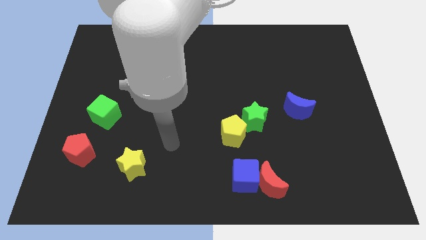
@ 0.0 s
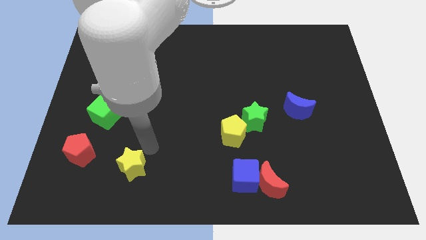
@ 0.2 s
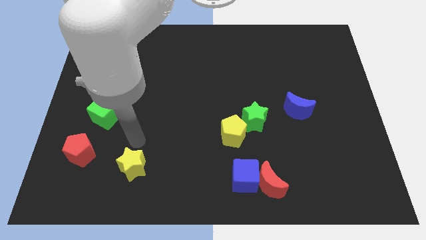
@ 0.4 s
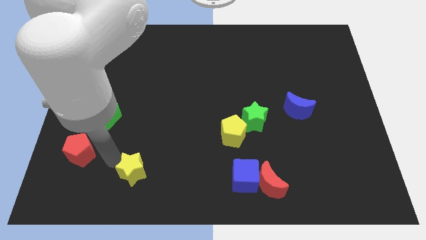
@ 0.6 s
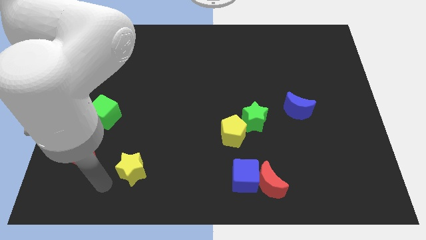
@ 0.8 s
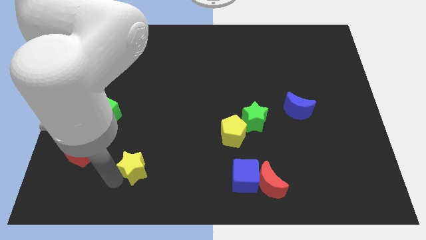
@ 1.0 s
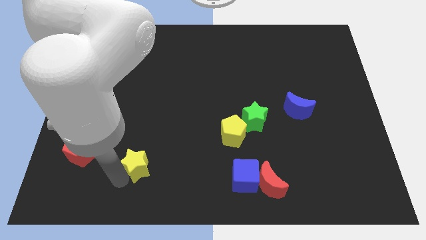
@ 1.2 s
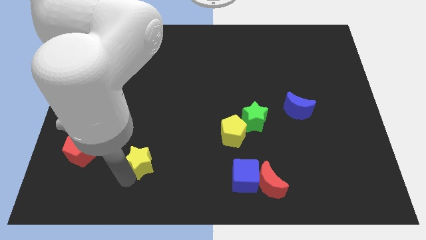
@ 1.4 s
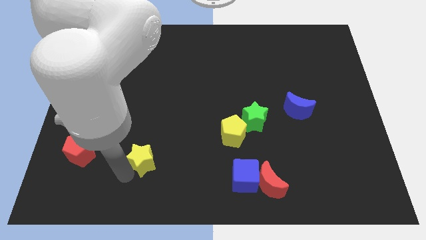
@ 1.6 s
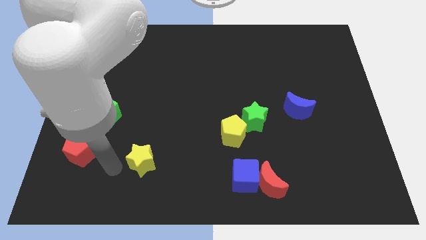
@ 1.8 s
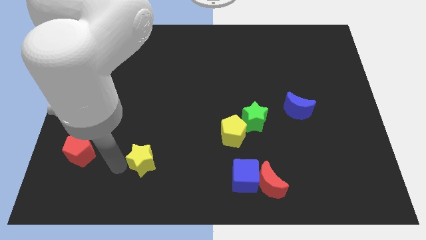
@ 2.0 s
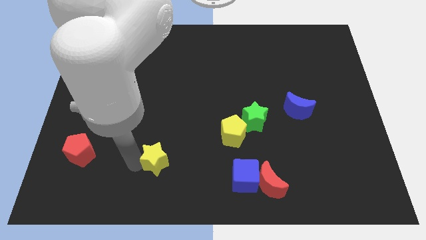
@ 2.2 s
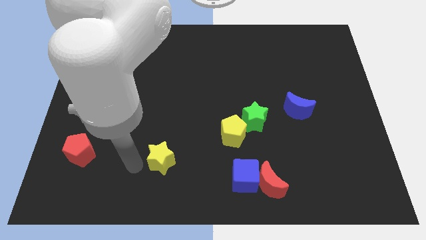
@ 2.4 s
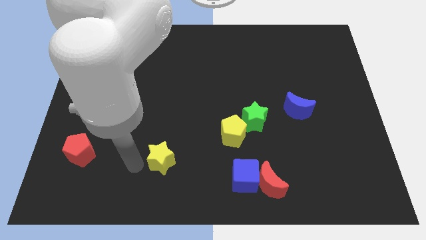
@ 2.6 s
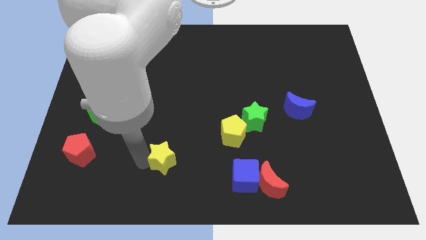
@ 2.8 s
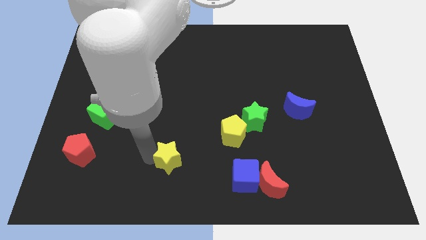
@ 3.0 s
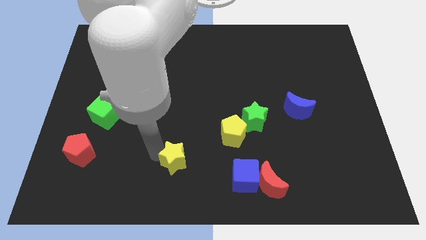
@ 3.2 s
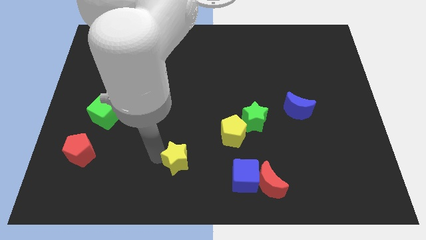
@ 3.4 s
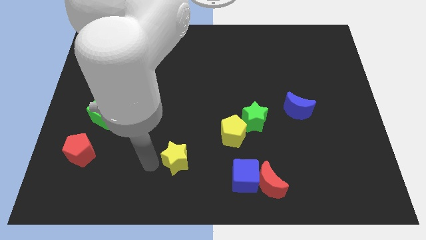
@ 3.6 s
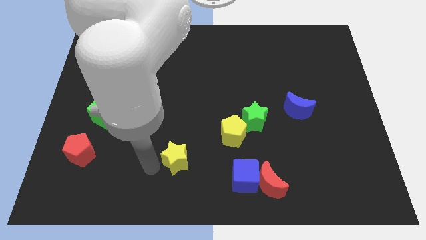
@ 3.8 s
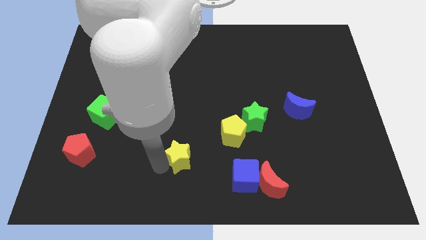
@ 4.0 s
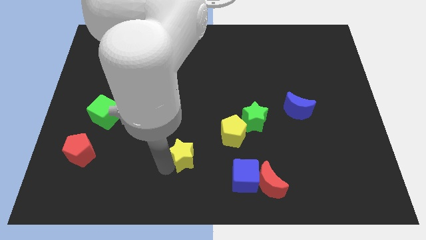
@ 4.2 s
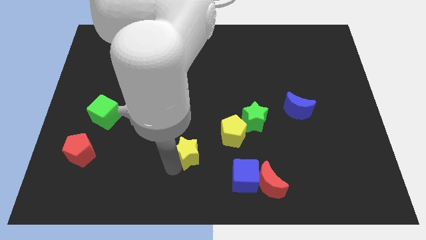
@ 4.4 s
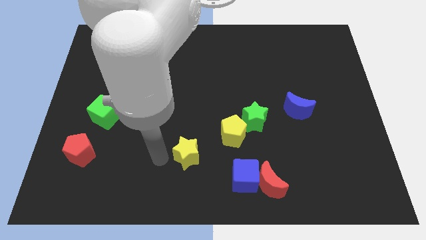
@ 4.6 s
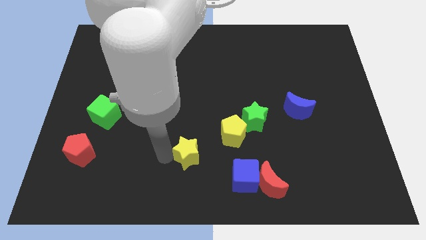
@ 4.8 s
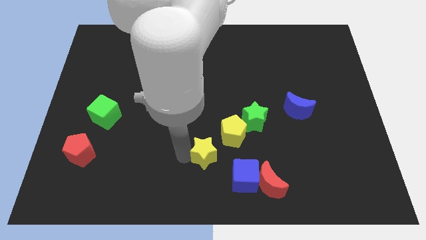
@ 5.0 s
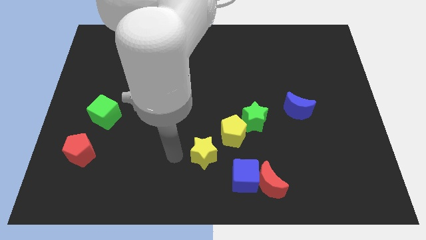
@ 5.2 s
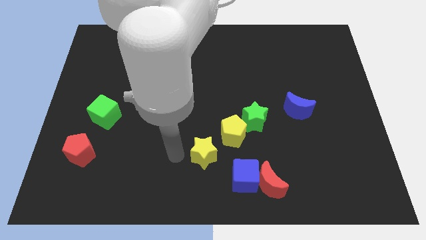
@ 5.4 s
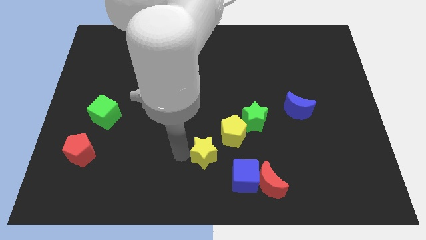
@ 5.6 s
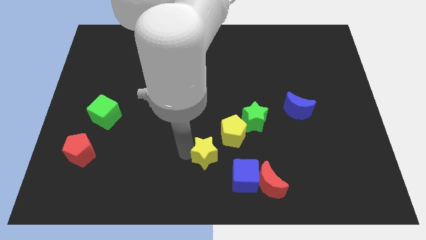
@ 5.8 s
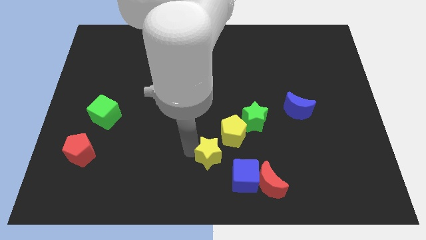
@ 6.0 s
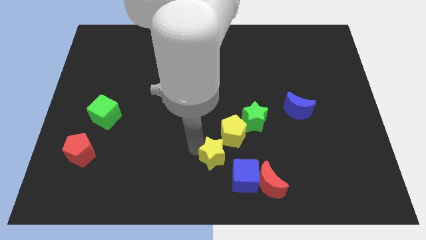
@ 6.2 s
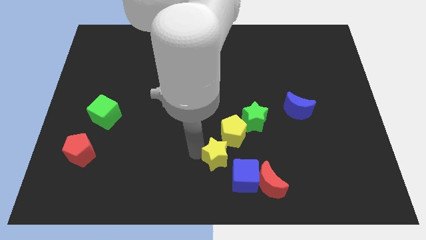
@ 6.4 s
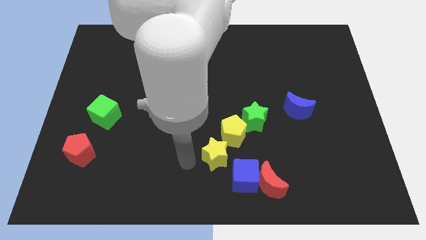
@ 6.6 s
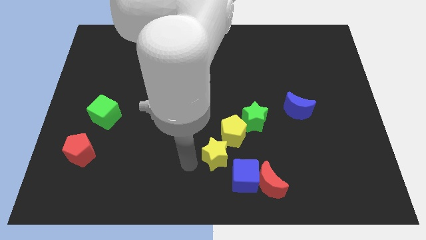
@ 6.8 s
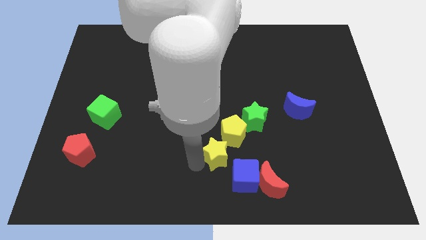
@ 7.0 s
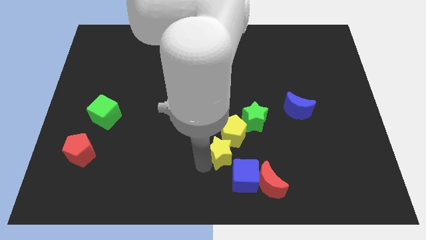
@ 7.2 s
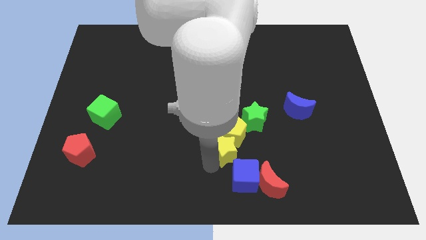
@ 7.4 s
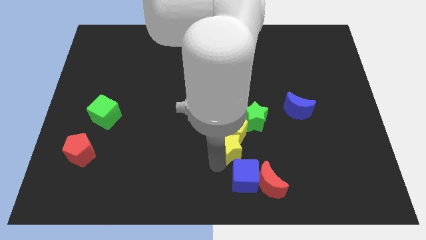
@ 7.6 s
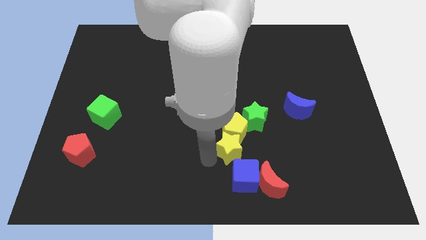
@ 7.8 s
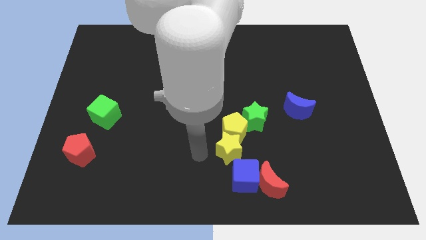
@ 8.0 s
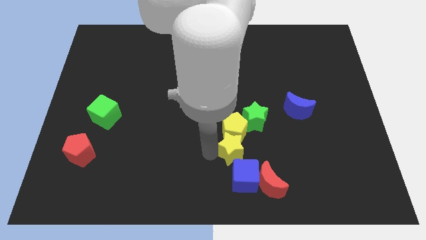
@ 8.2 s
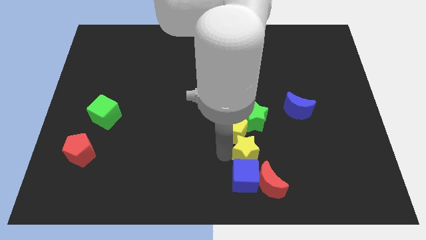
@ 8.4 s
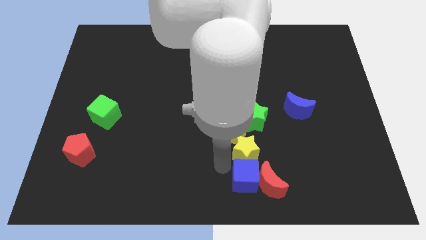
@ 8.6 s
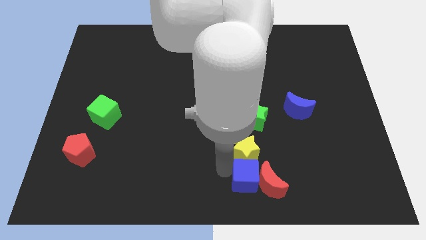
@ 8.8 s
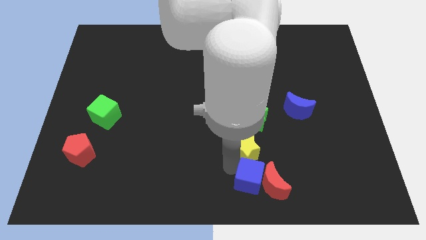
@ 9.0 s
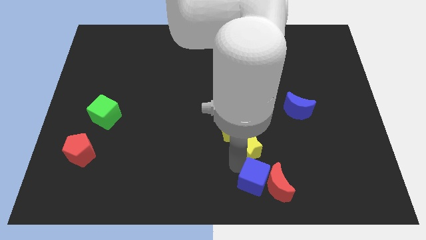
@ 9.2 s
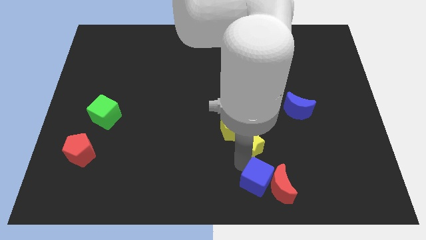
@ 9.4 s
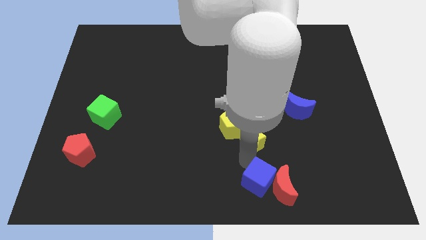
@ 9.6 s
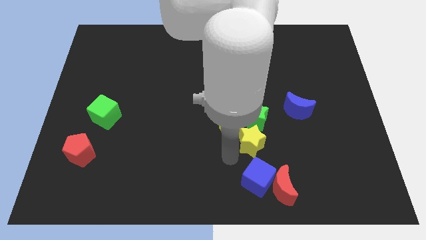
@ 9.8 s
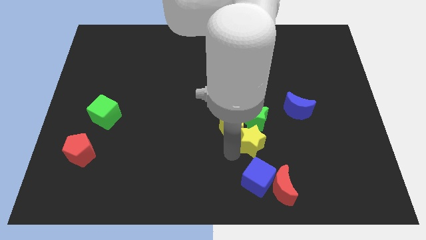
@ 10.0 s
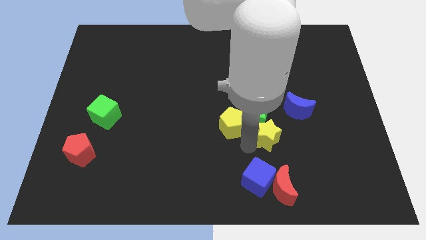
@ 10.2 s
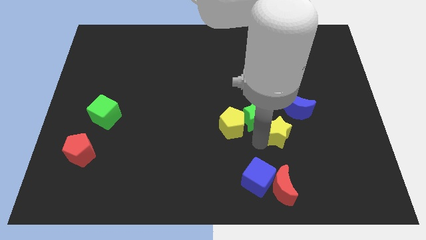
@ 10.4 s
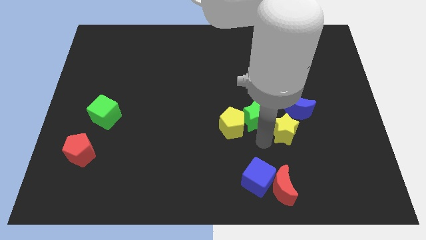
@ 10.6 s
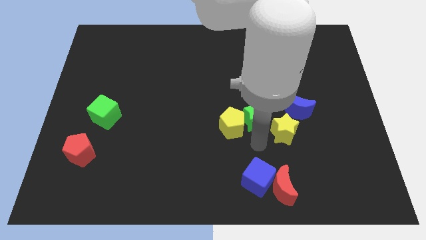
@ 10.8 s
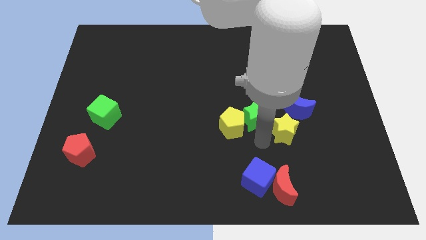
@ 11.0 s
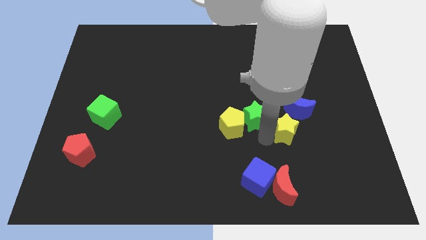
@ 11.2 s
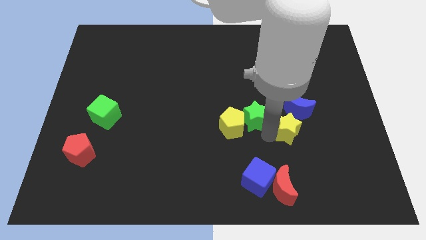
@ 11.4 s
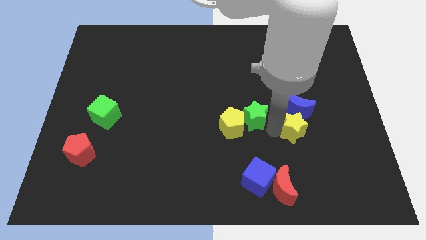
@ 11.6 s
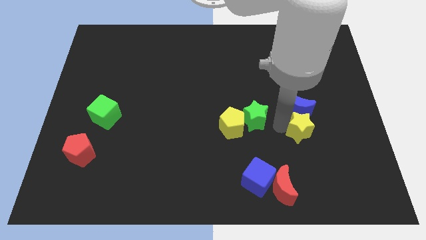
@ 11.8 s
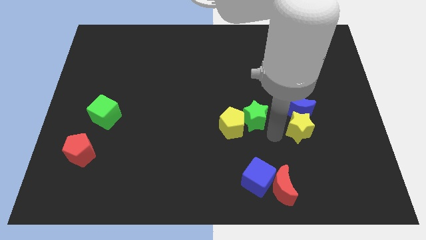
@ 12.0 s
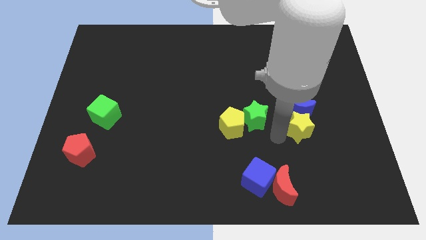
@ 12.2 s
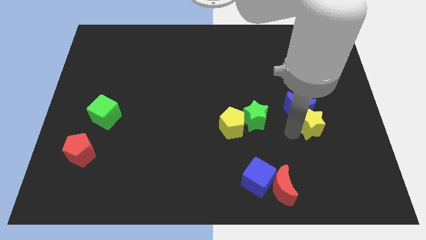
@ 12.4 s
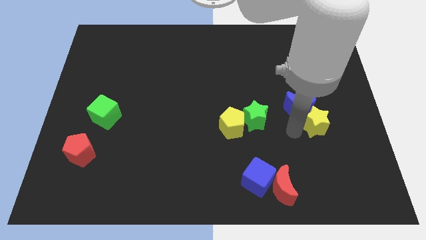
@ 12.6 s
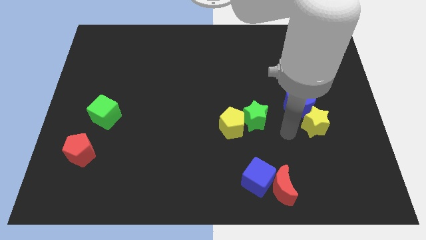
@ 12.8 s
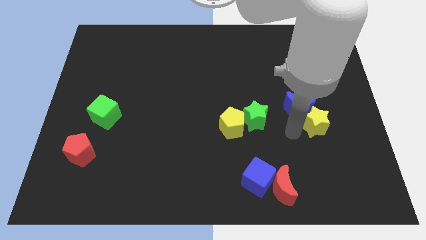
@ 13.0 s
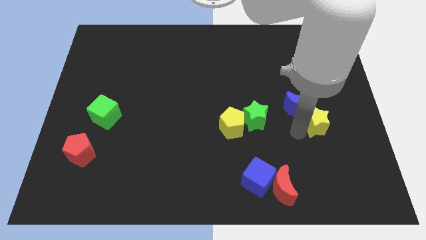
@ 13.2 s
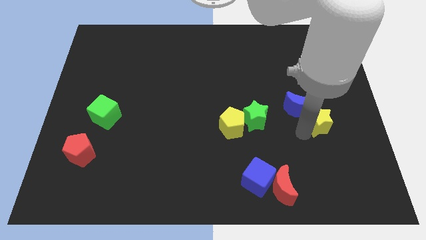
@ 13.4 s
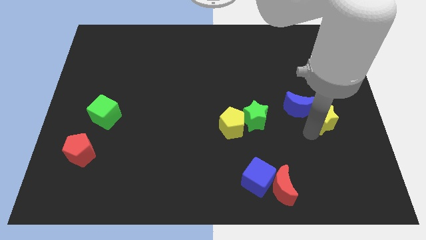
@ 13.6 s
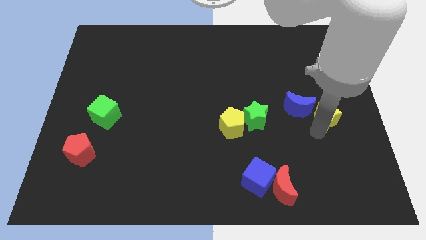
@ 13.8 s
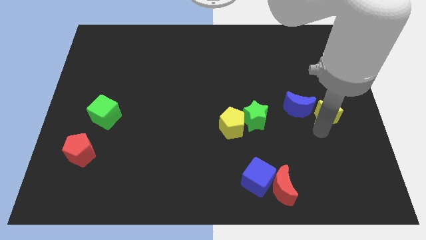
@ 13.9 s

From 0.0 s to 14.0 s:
put the yellow star to the right side of the board
